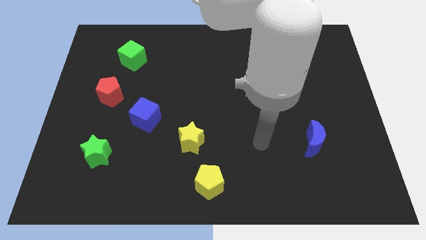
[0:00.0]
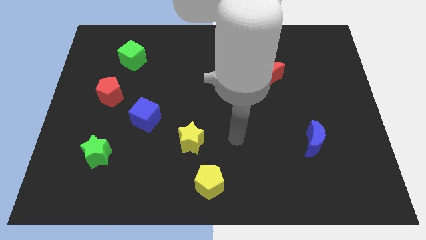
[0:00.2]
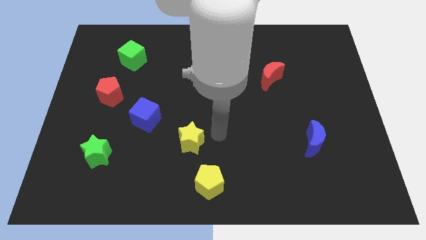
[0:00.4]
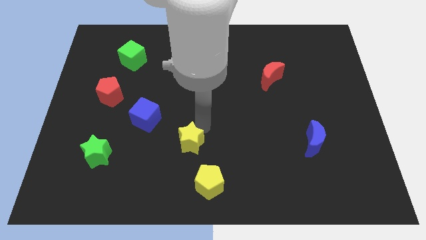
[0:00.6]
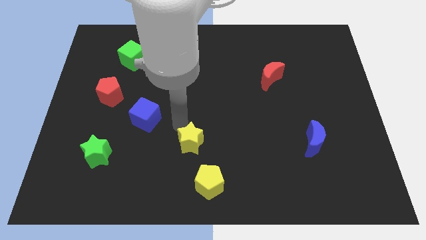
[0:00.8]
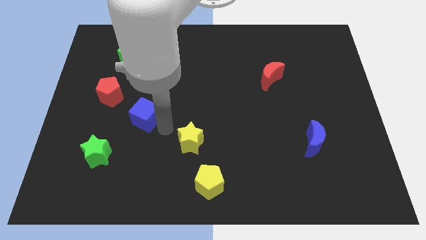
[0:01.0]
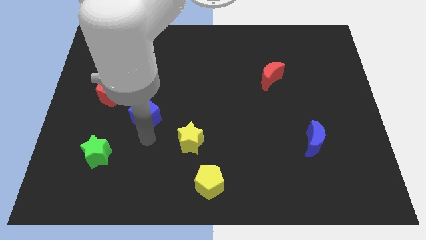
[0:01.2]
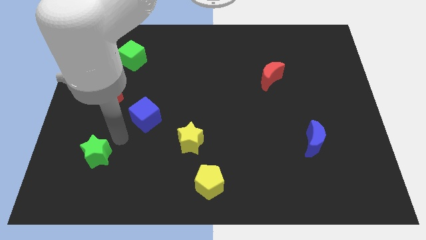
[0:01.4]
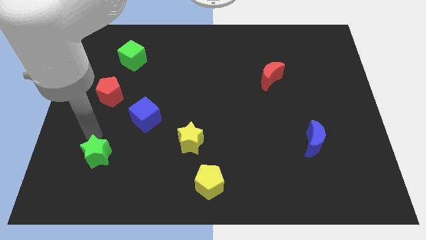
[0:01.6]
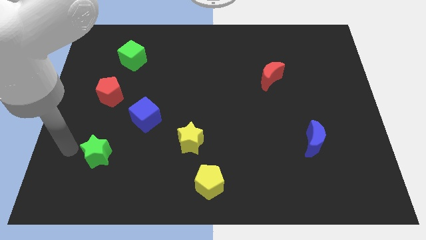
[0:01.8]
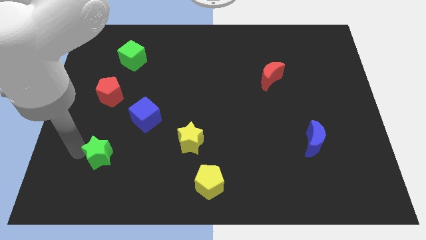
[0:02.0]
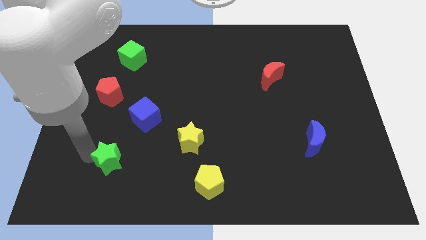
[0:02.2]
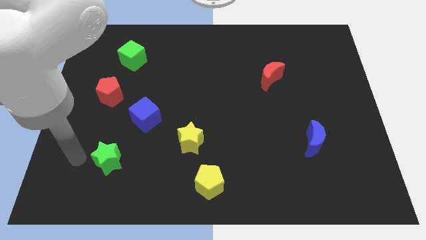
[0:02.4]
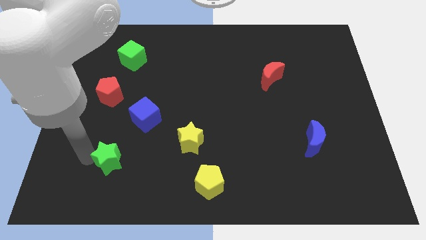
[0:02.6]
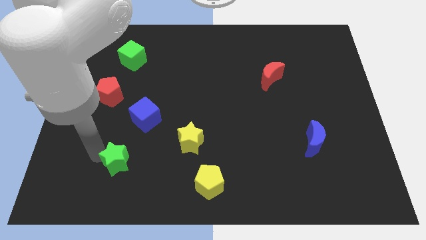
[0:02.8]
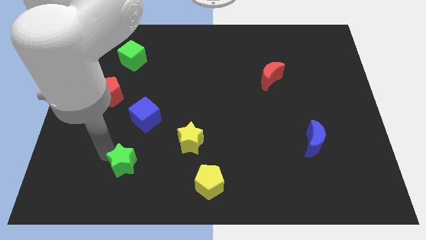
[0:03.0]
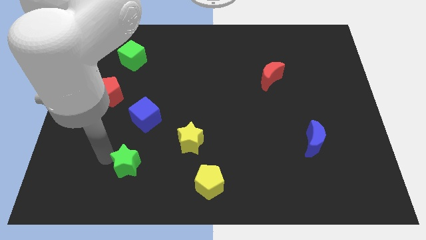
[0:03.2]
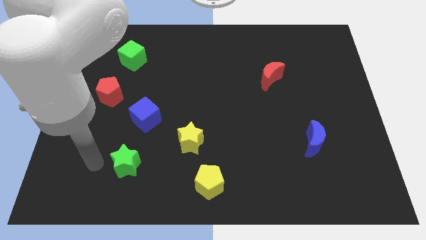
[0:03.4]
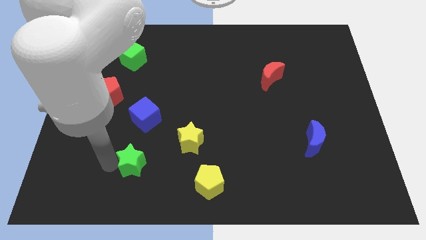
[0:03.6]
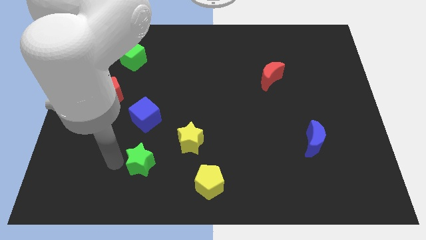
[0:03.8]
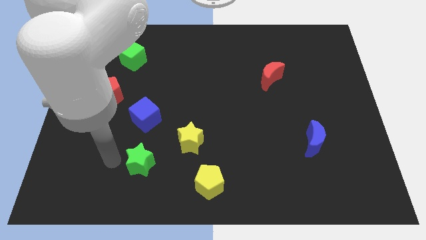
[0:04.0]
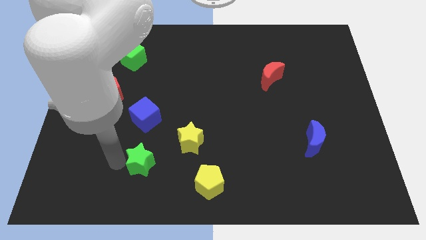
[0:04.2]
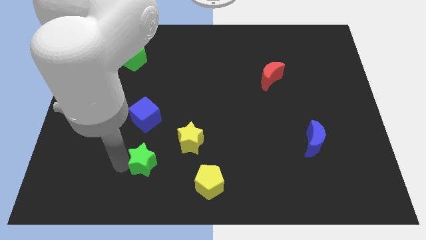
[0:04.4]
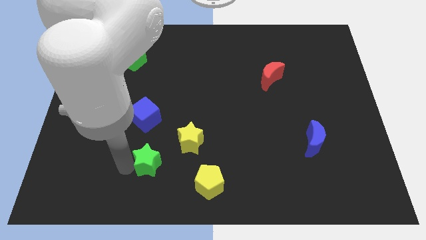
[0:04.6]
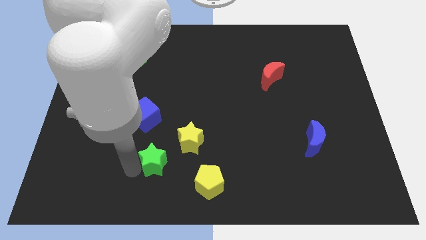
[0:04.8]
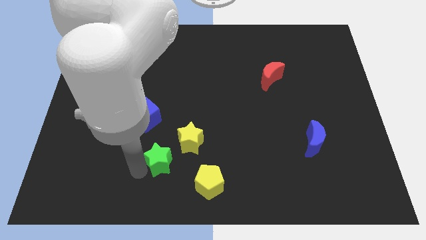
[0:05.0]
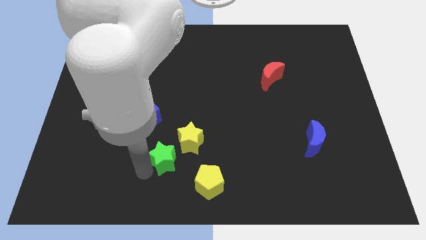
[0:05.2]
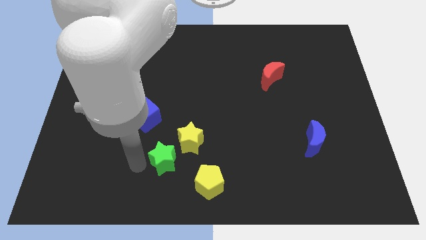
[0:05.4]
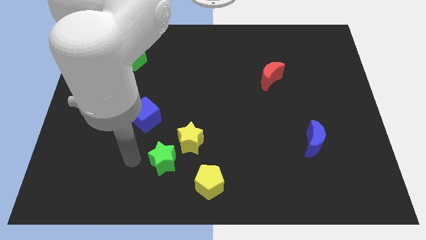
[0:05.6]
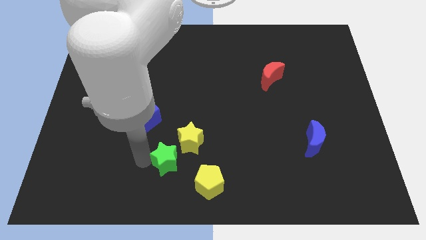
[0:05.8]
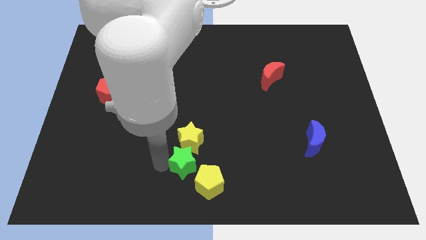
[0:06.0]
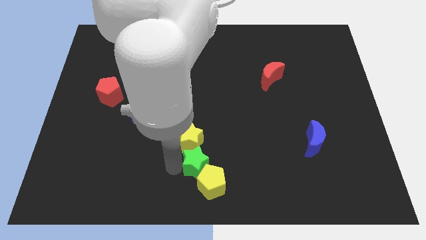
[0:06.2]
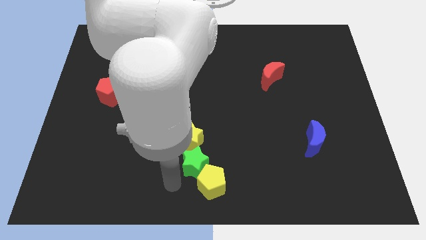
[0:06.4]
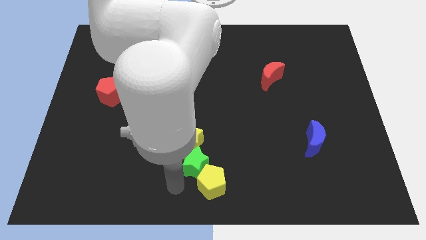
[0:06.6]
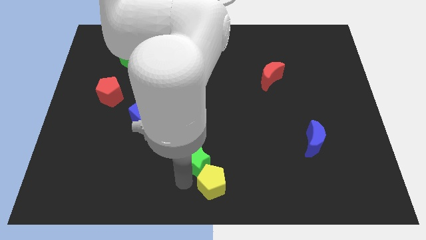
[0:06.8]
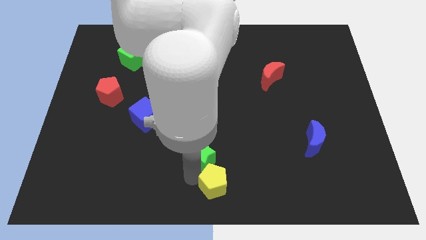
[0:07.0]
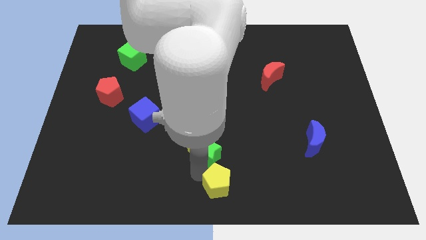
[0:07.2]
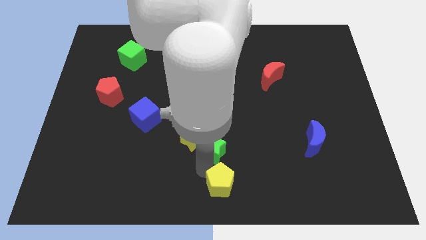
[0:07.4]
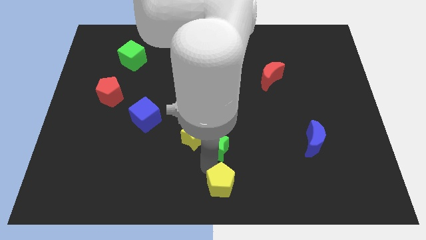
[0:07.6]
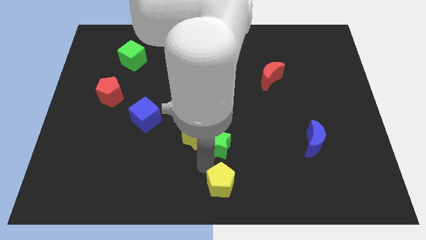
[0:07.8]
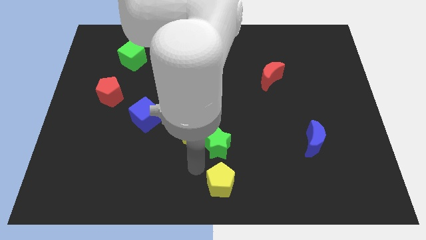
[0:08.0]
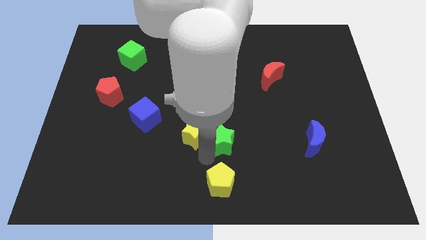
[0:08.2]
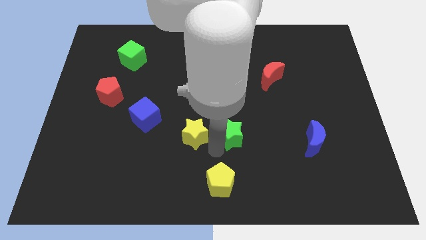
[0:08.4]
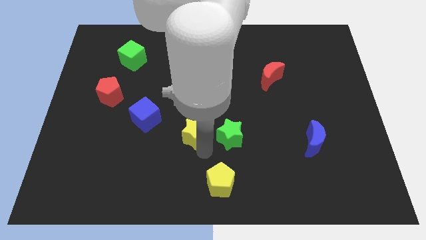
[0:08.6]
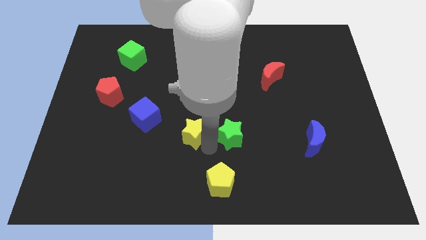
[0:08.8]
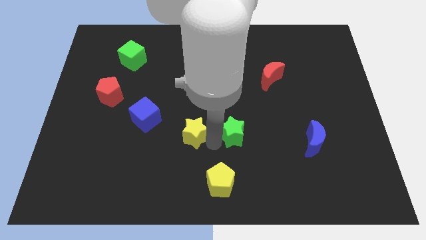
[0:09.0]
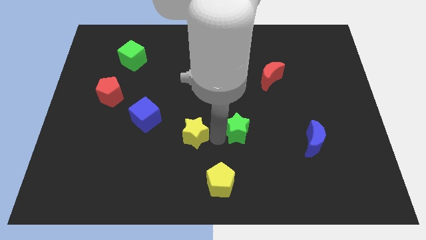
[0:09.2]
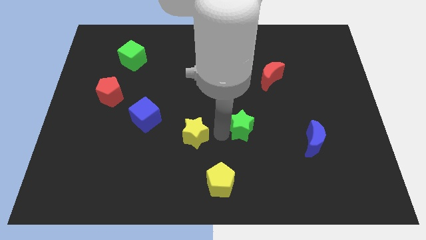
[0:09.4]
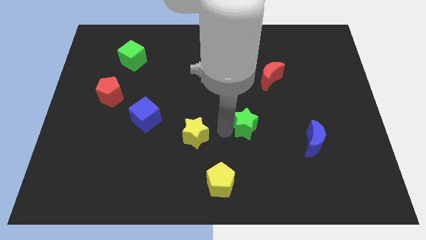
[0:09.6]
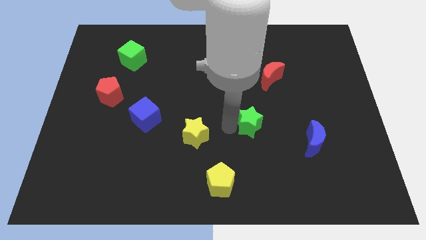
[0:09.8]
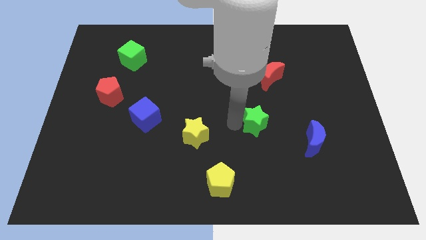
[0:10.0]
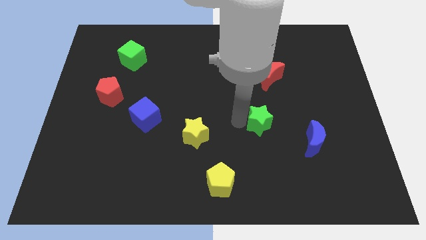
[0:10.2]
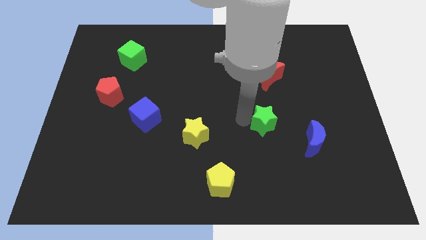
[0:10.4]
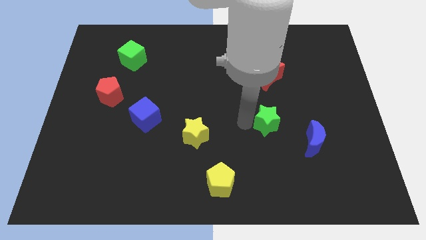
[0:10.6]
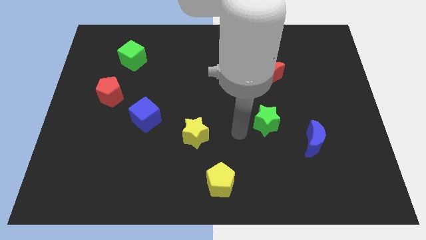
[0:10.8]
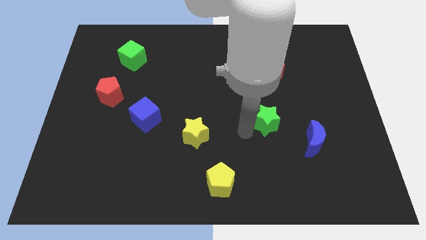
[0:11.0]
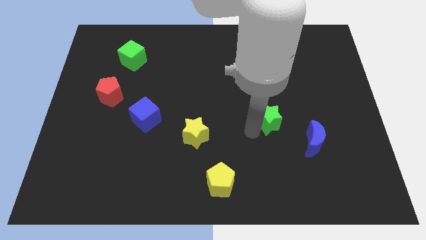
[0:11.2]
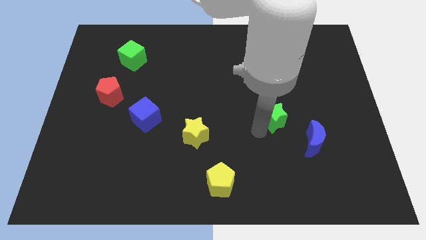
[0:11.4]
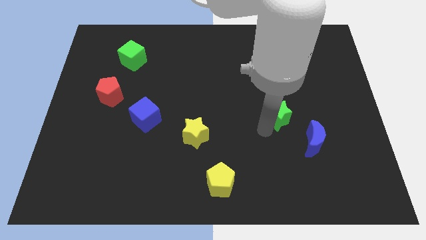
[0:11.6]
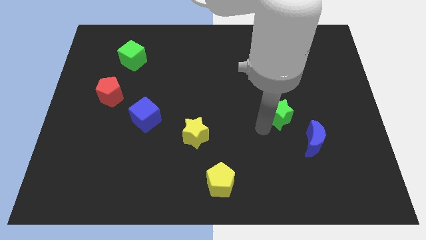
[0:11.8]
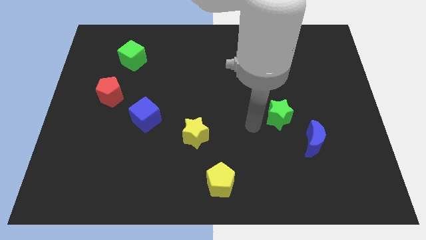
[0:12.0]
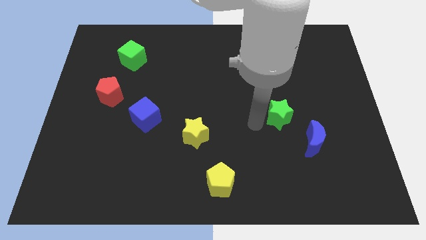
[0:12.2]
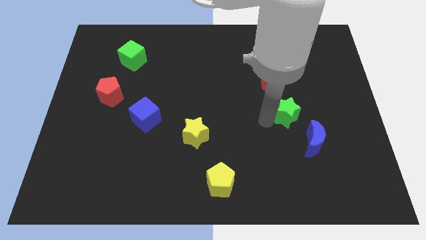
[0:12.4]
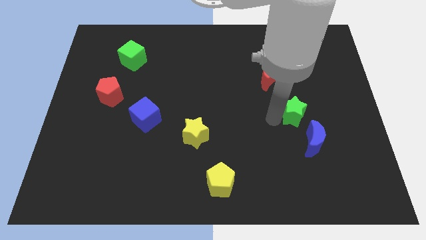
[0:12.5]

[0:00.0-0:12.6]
push the green star above the blue moon
